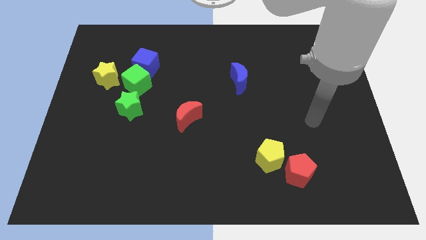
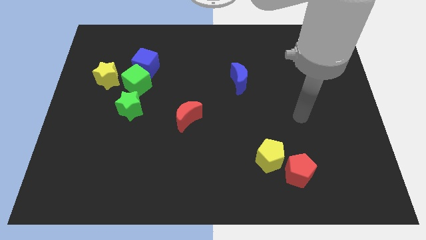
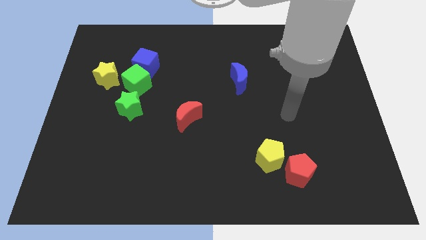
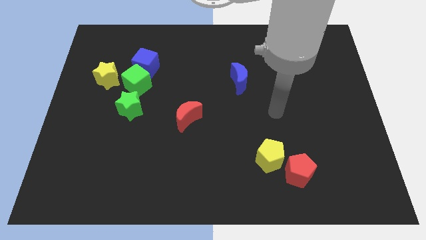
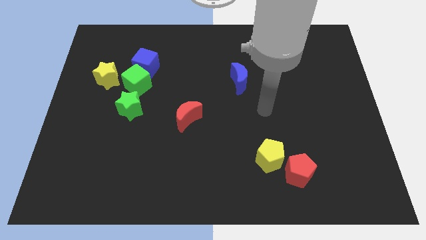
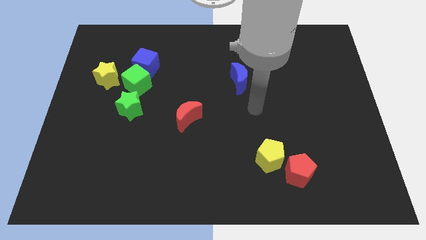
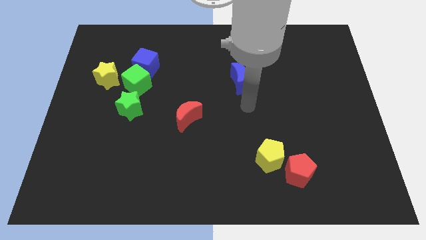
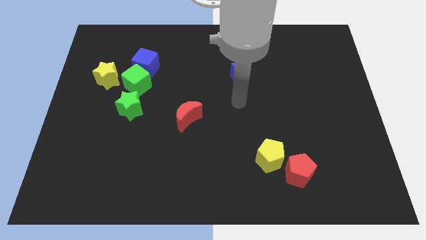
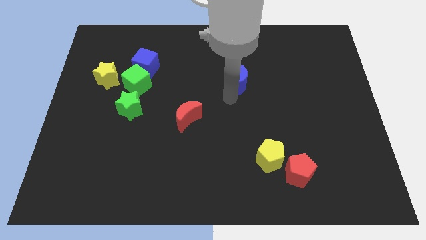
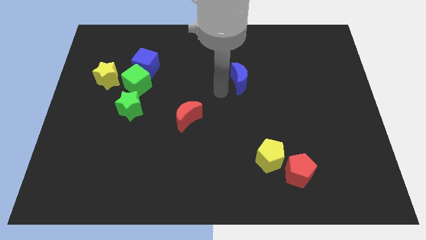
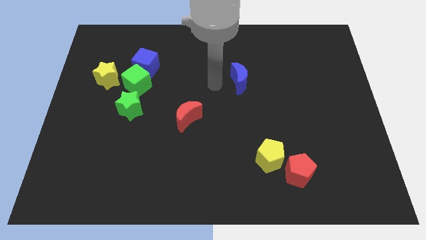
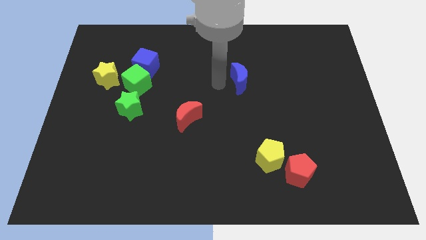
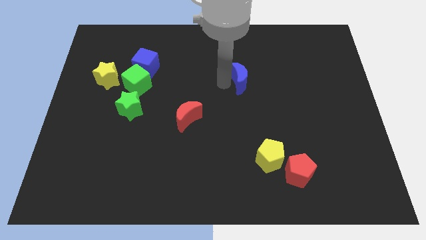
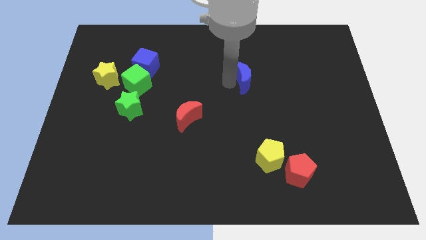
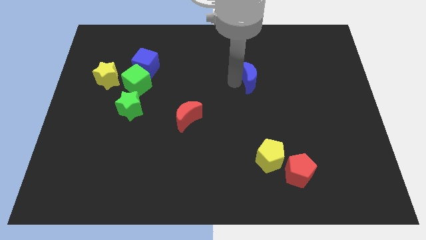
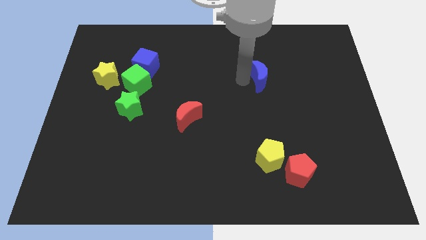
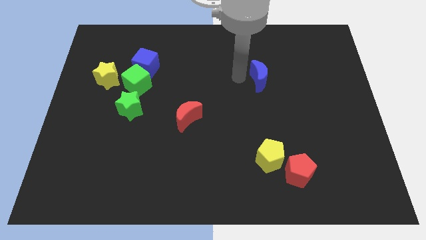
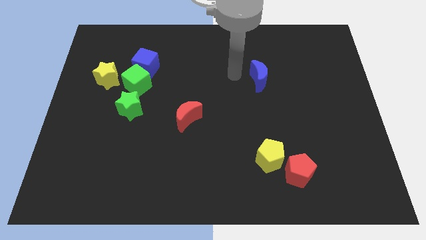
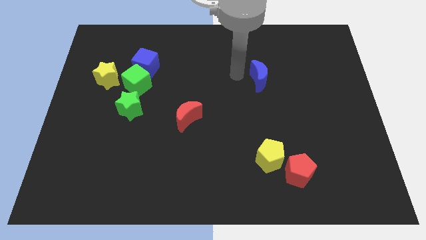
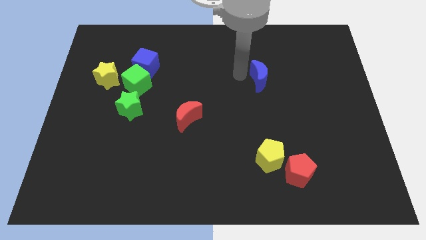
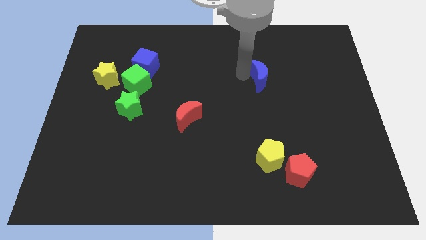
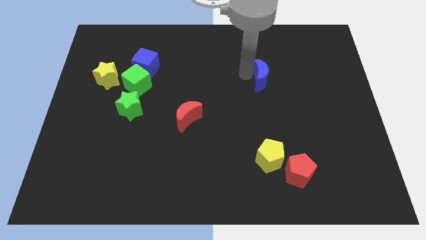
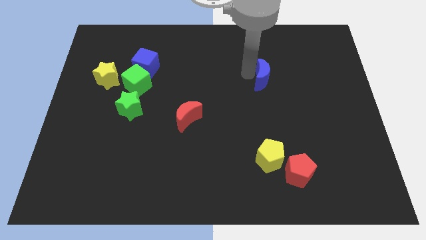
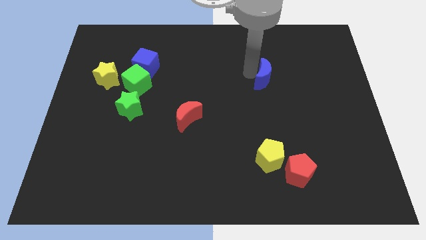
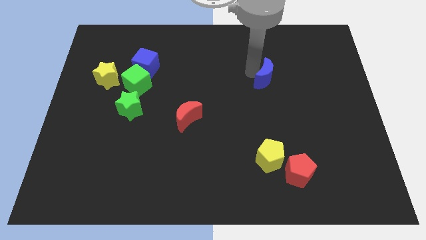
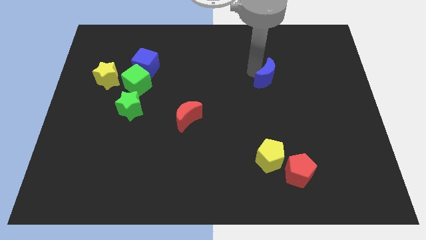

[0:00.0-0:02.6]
slightly push the blue moon right

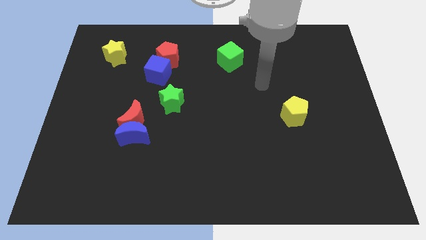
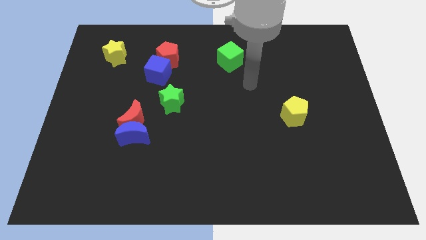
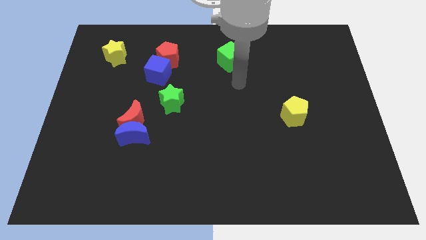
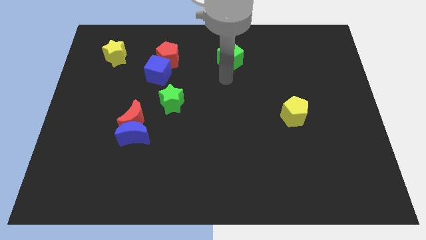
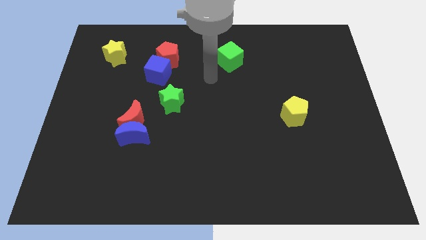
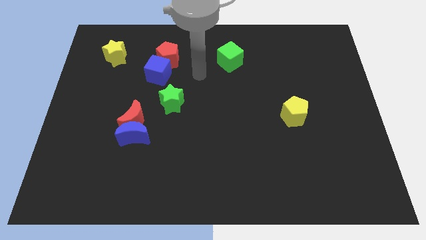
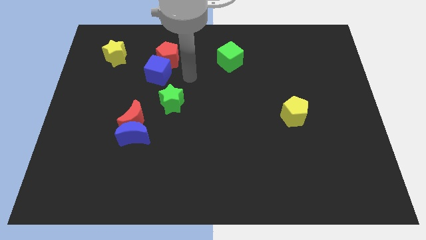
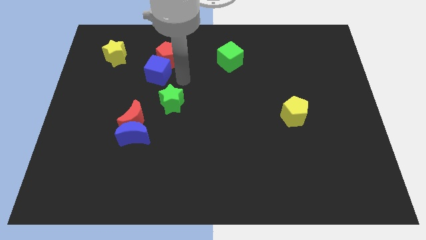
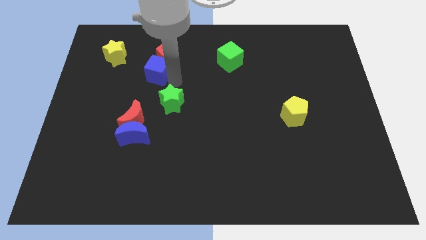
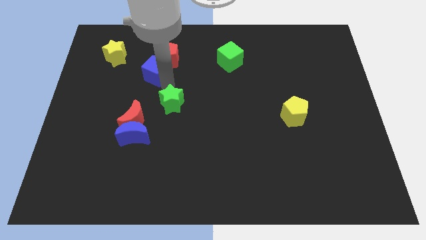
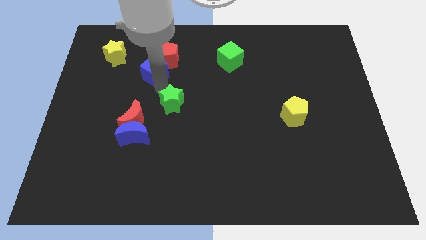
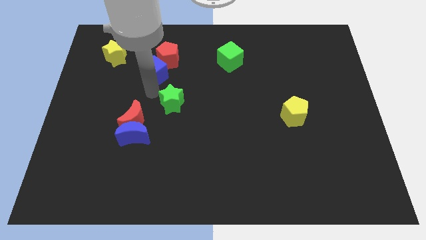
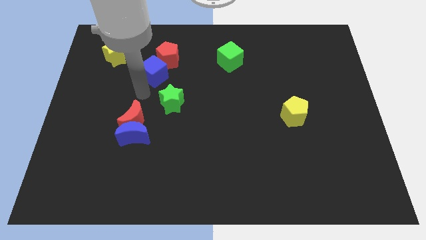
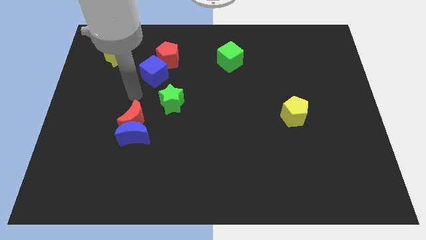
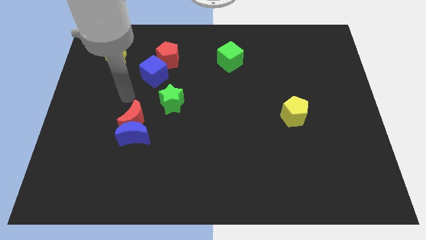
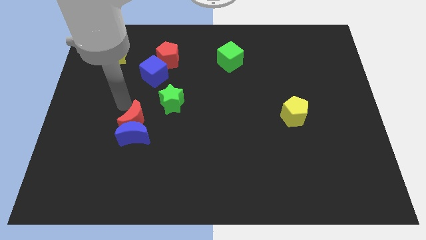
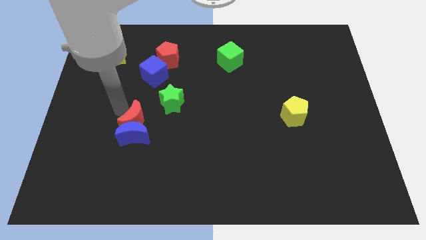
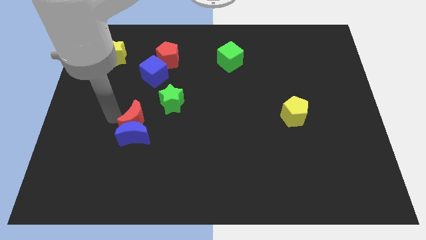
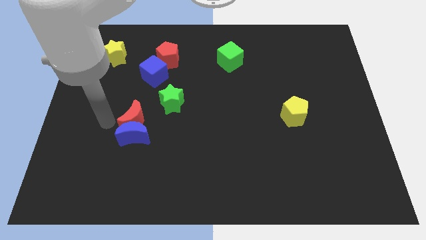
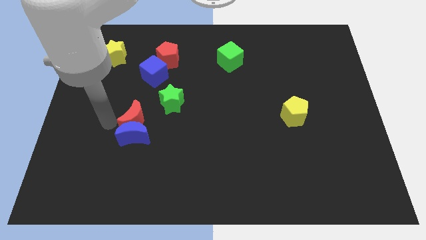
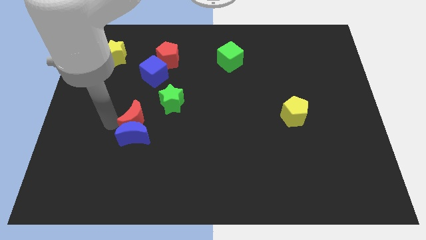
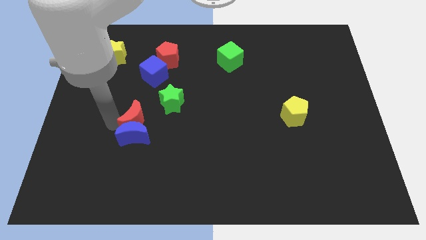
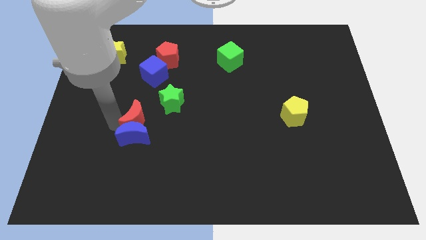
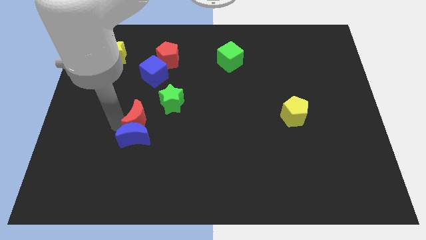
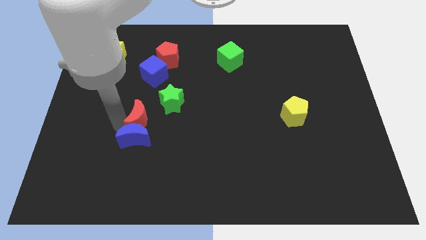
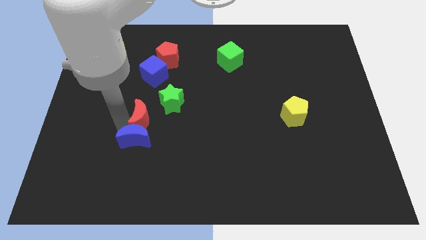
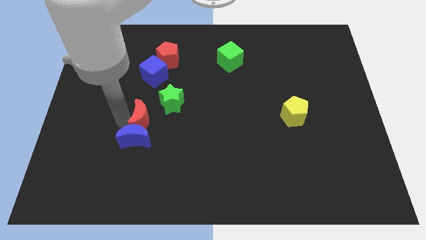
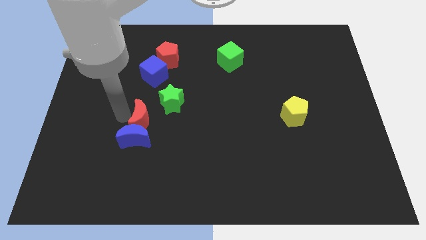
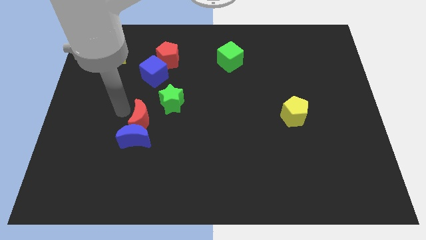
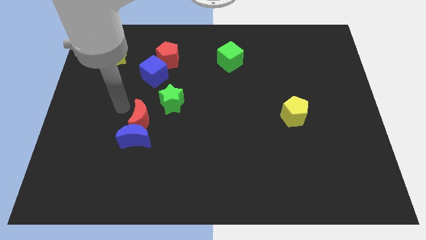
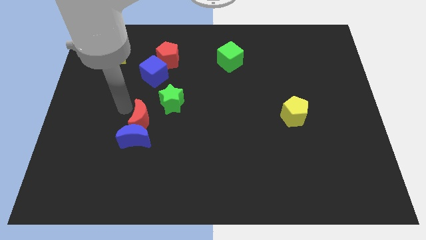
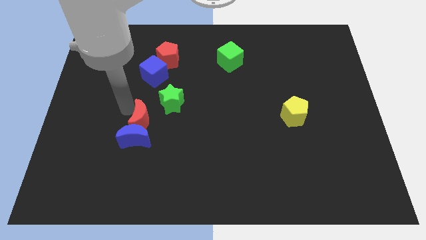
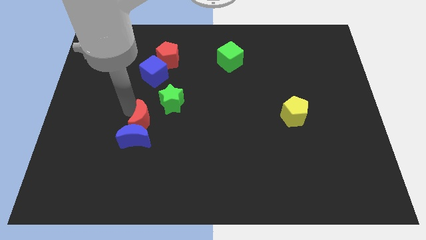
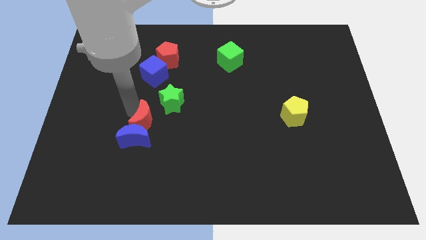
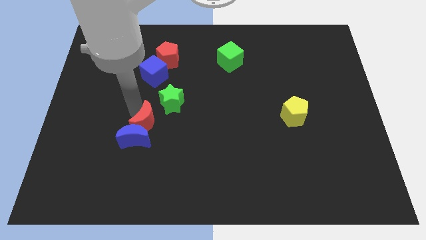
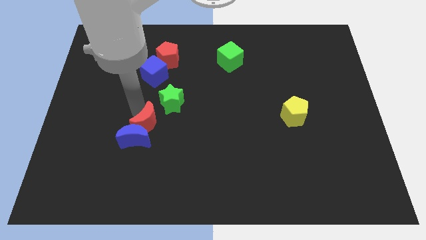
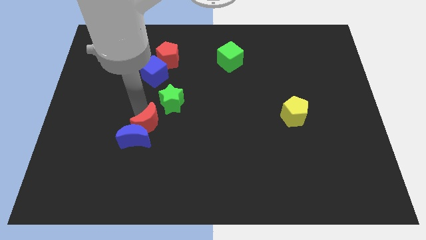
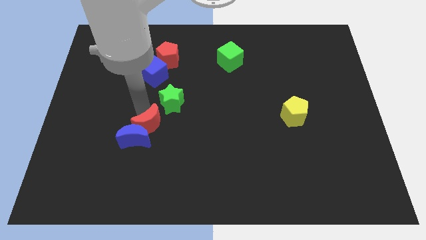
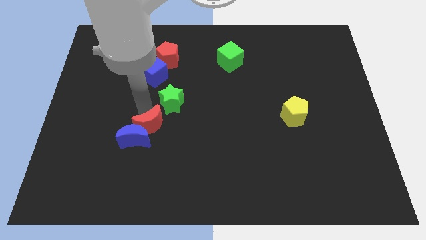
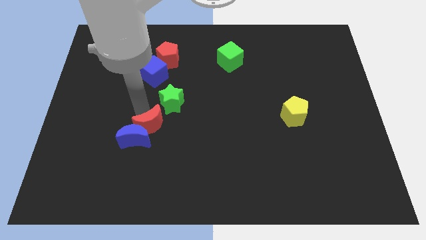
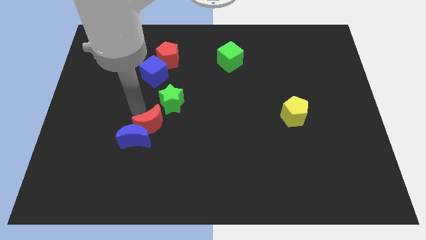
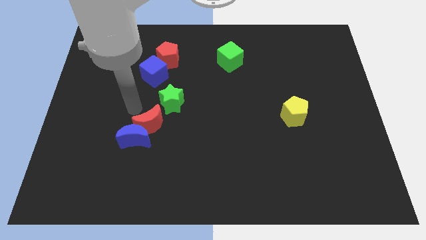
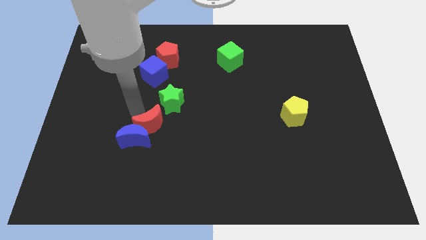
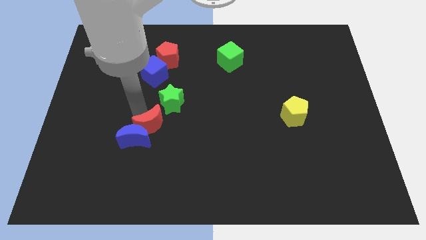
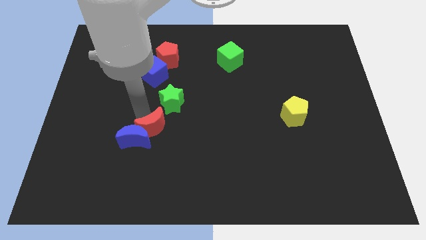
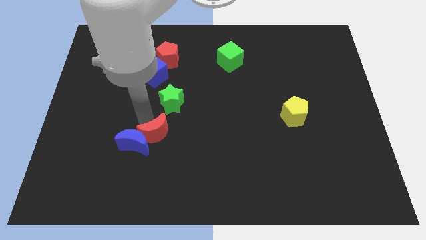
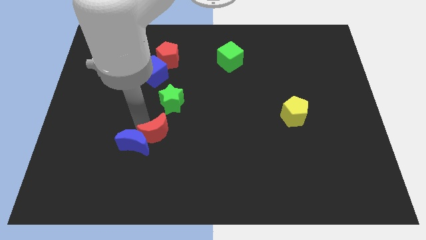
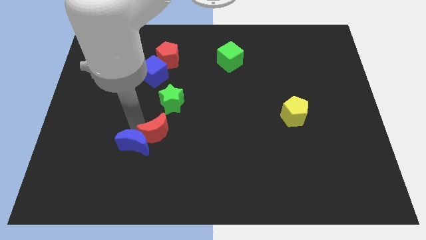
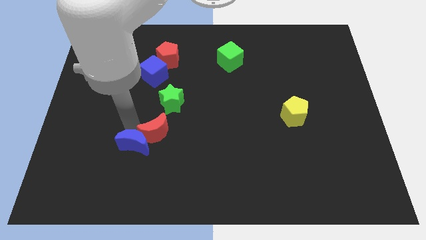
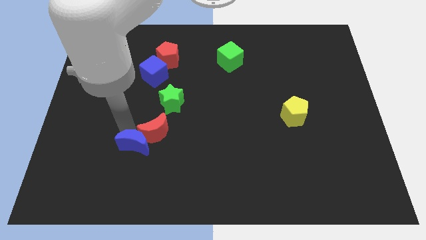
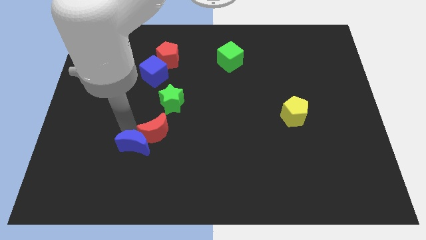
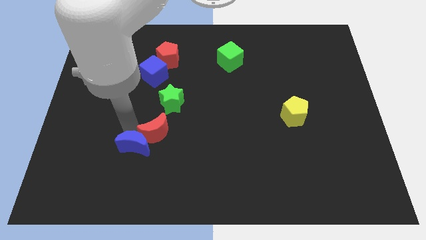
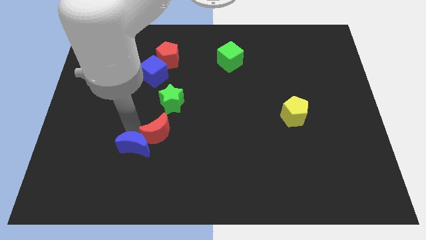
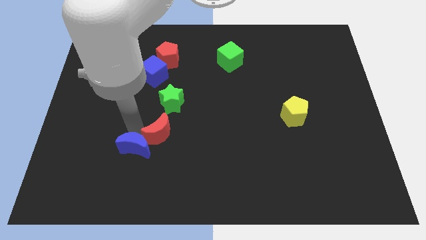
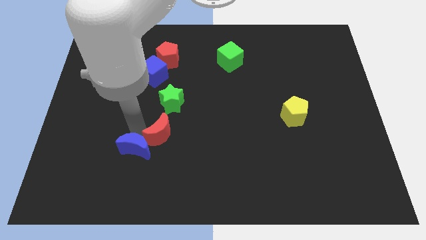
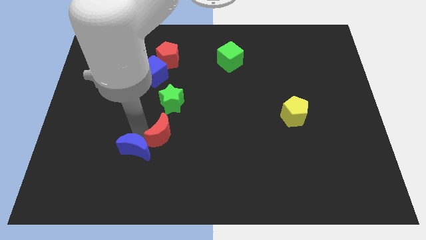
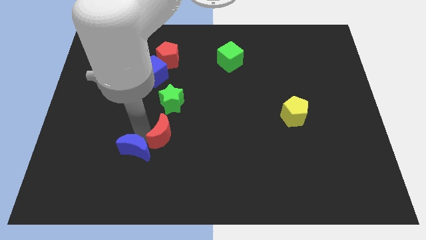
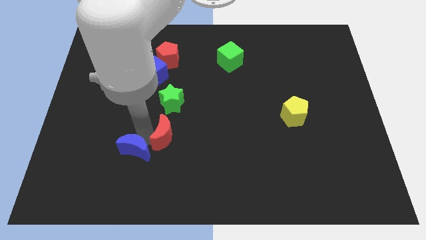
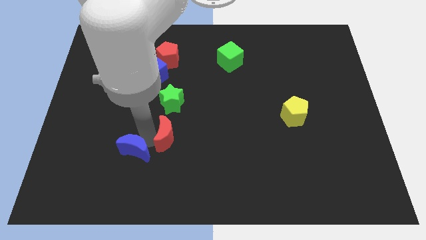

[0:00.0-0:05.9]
move the red moon to the right a bit
